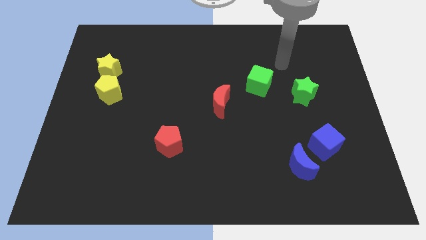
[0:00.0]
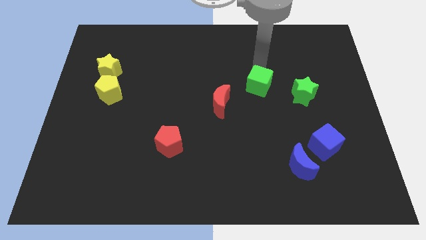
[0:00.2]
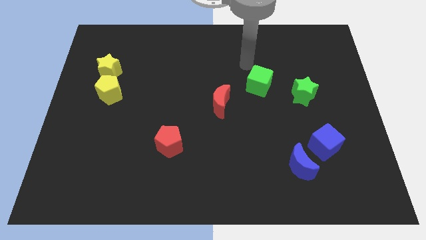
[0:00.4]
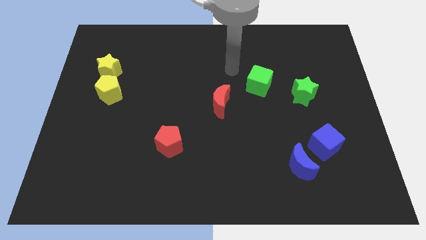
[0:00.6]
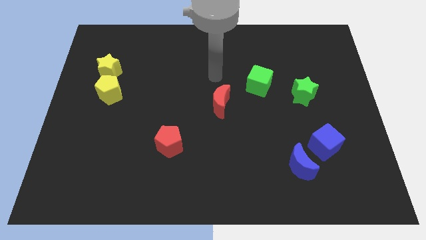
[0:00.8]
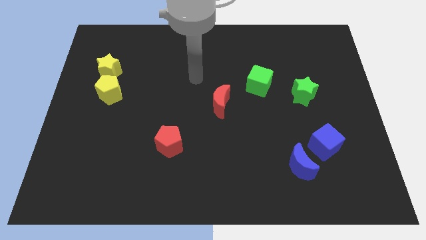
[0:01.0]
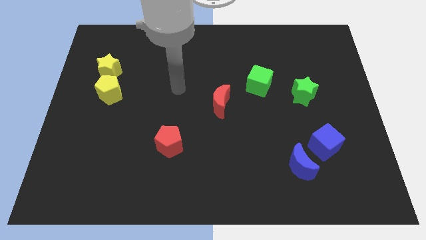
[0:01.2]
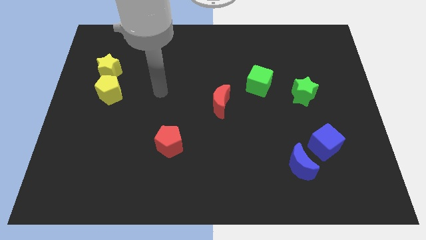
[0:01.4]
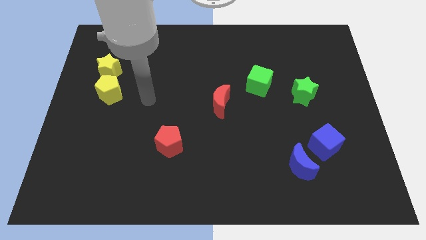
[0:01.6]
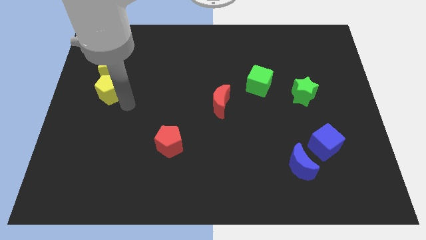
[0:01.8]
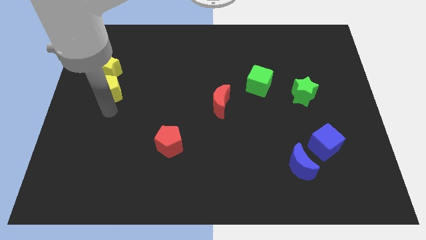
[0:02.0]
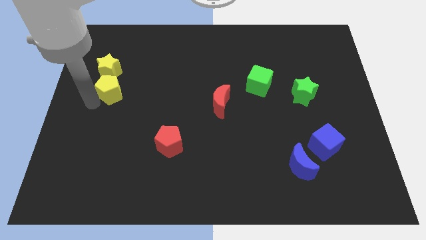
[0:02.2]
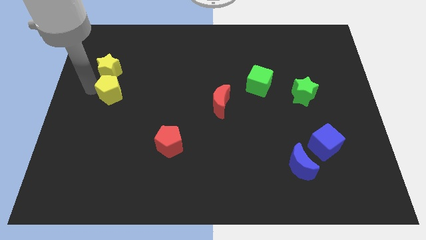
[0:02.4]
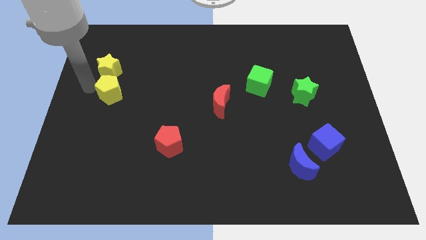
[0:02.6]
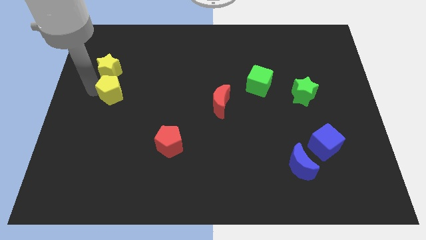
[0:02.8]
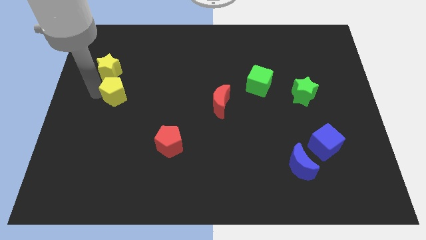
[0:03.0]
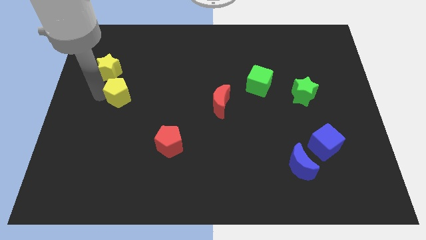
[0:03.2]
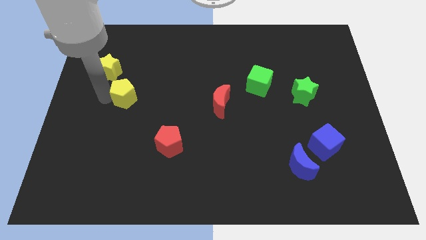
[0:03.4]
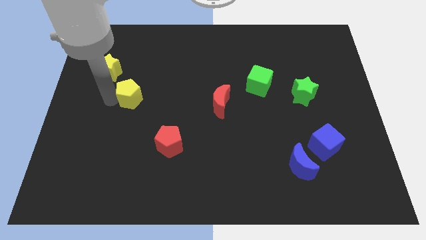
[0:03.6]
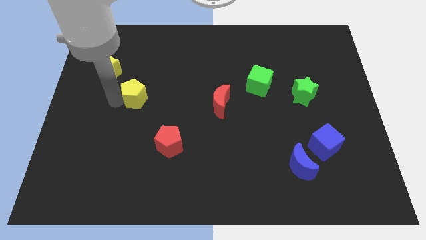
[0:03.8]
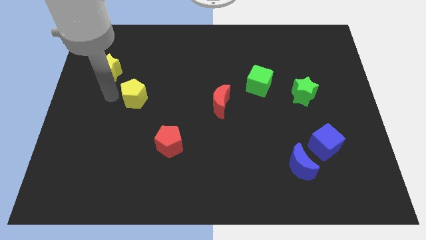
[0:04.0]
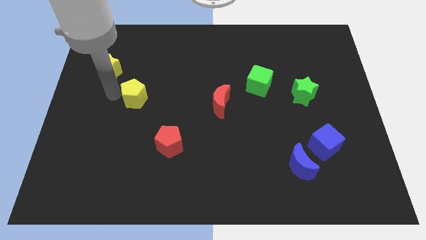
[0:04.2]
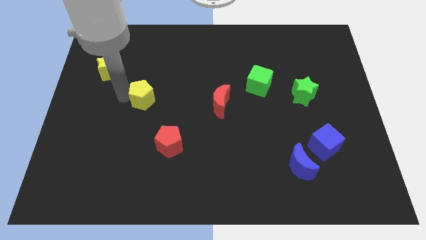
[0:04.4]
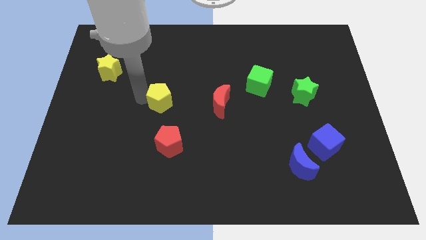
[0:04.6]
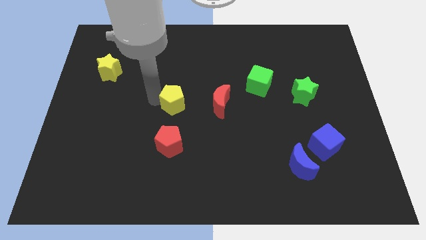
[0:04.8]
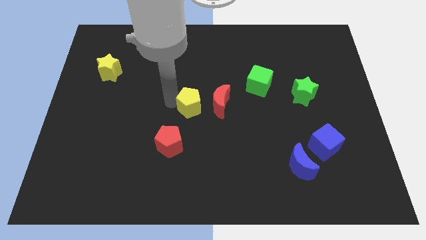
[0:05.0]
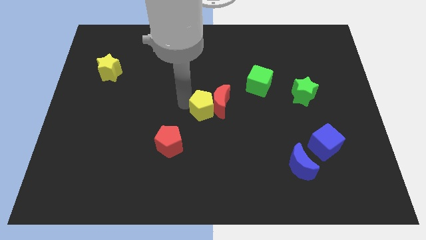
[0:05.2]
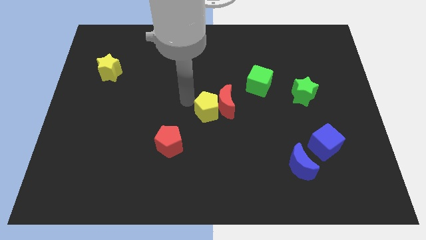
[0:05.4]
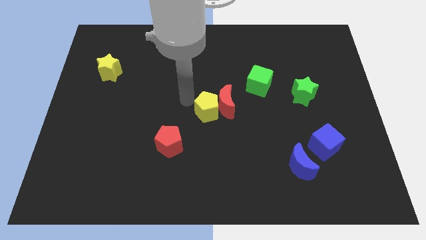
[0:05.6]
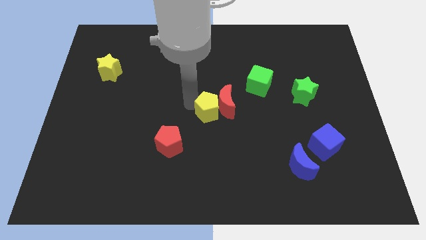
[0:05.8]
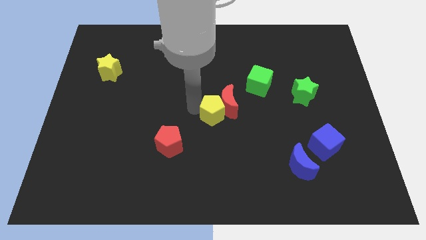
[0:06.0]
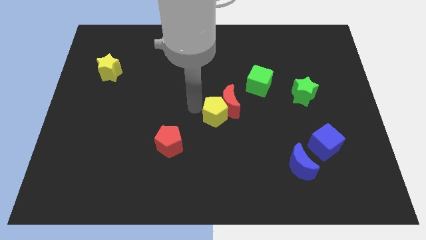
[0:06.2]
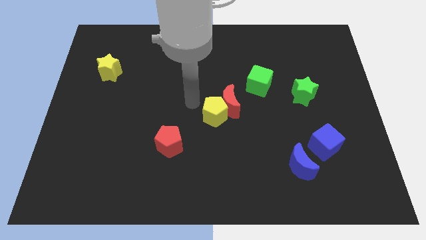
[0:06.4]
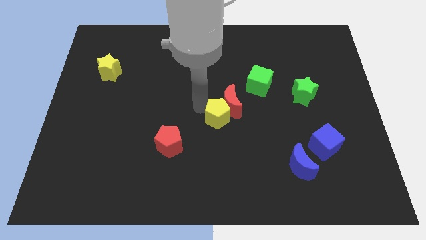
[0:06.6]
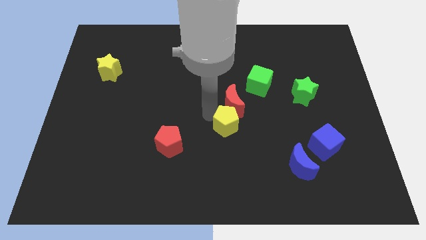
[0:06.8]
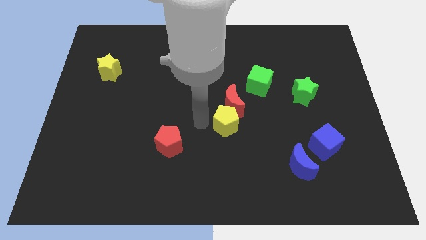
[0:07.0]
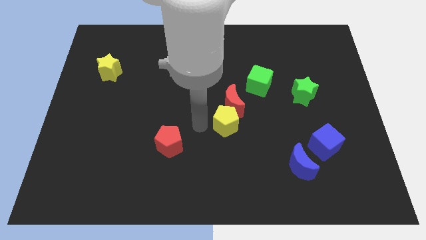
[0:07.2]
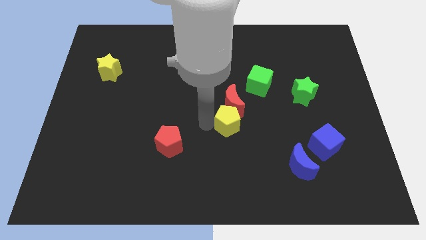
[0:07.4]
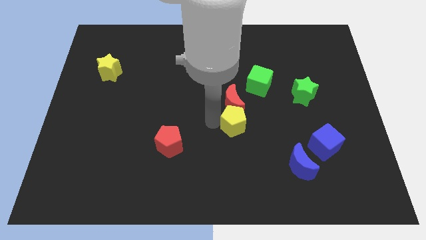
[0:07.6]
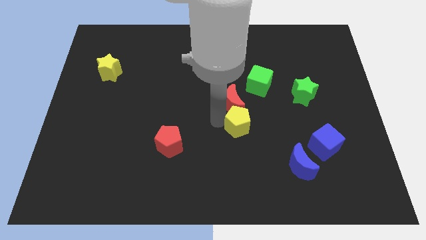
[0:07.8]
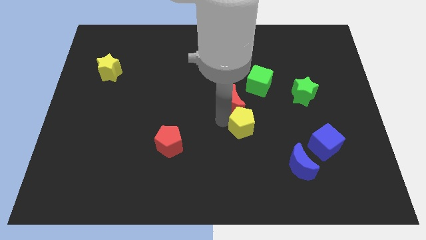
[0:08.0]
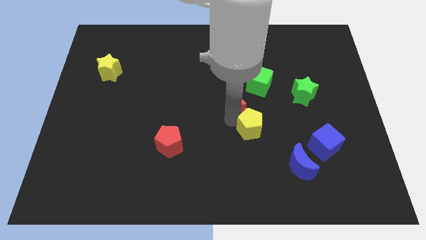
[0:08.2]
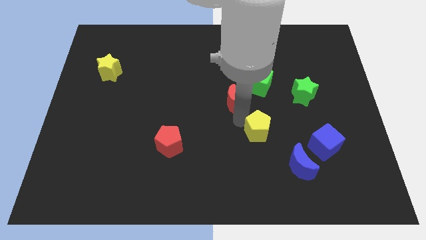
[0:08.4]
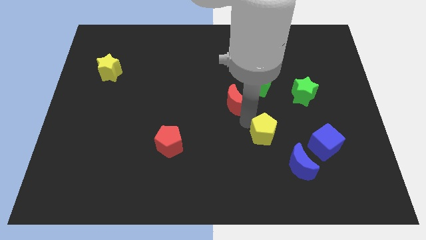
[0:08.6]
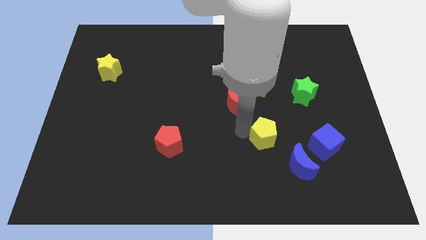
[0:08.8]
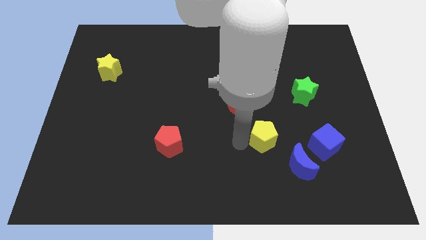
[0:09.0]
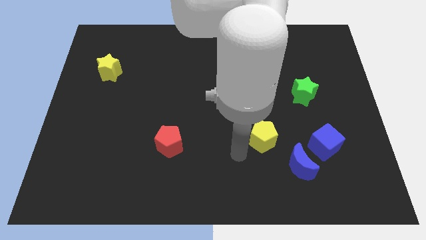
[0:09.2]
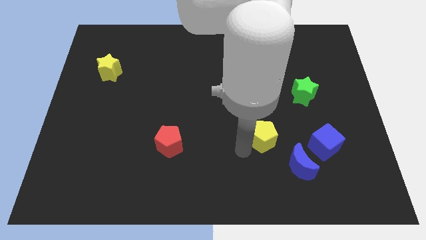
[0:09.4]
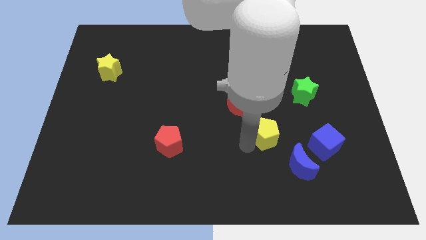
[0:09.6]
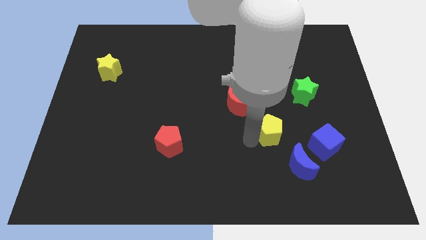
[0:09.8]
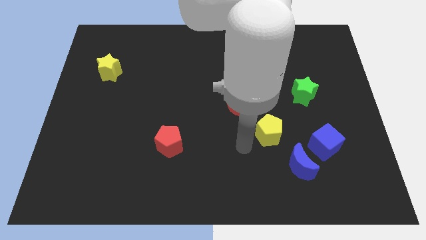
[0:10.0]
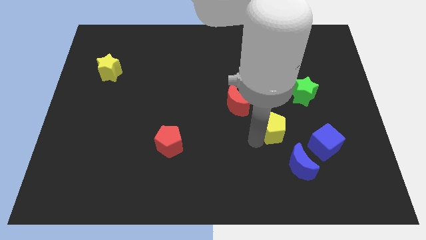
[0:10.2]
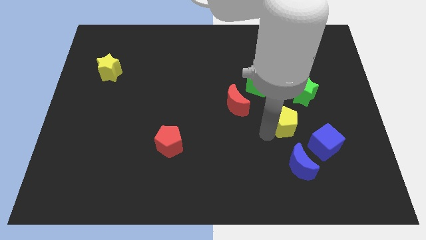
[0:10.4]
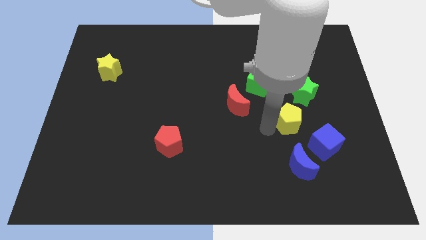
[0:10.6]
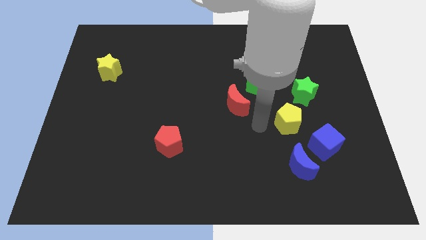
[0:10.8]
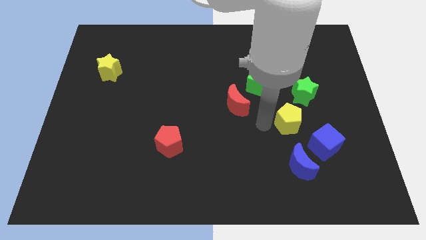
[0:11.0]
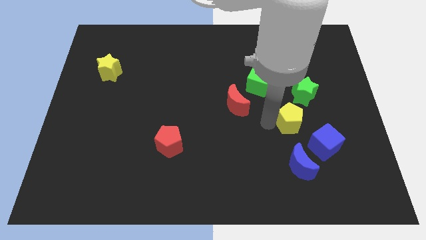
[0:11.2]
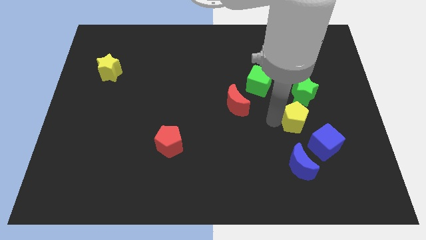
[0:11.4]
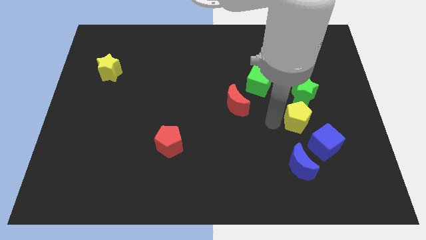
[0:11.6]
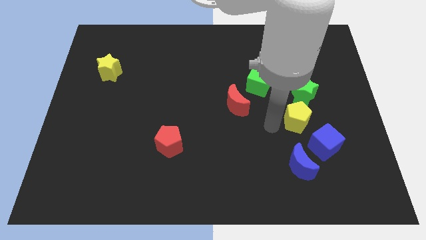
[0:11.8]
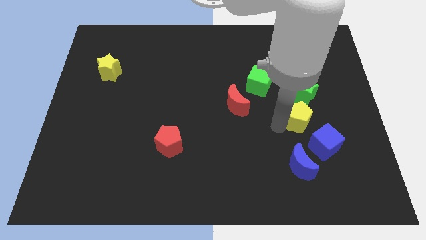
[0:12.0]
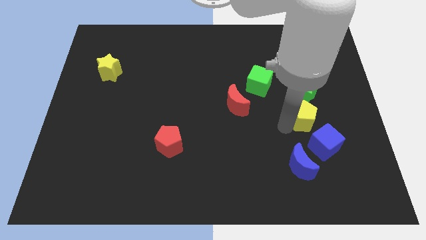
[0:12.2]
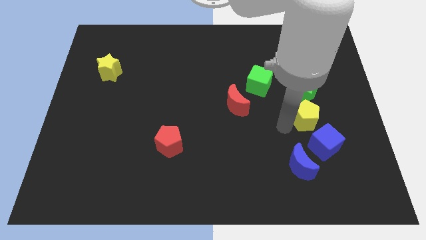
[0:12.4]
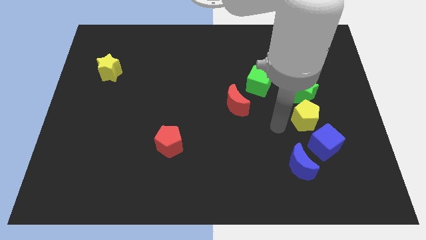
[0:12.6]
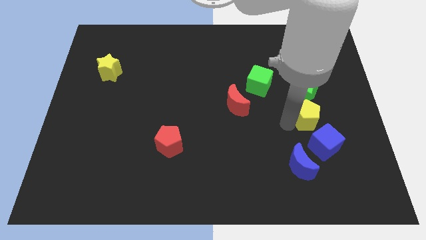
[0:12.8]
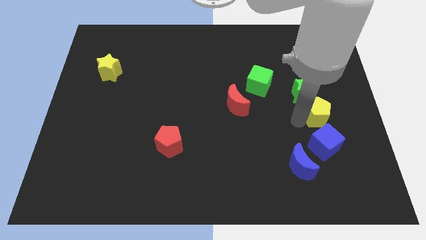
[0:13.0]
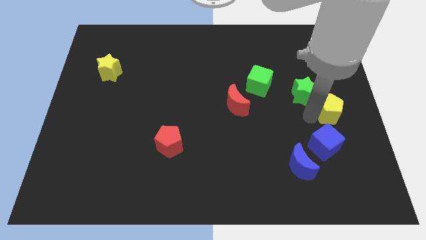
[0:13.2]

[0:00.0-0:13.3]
move the yellow pentagon to the right side

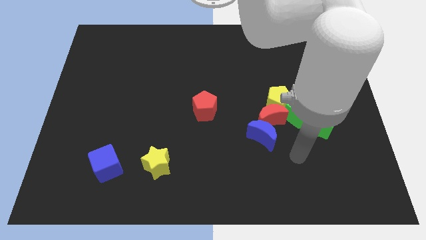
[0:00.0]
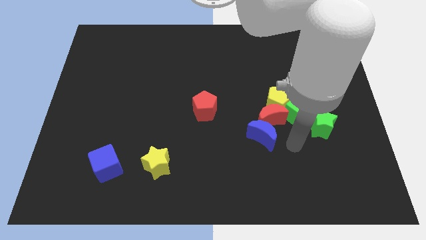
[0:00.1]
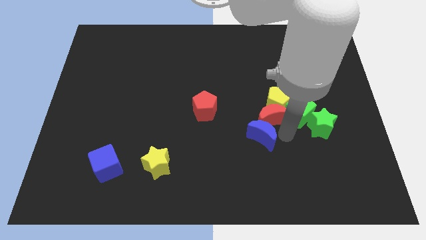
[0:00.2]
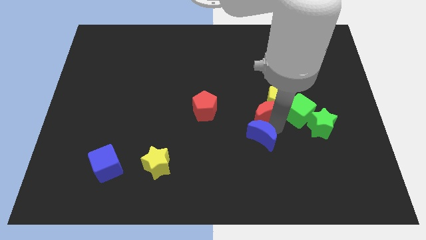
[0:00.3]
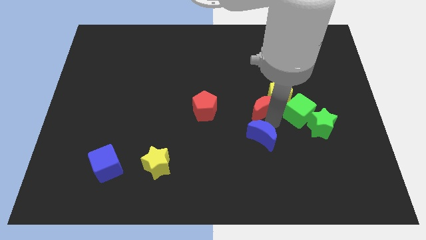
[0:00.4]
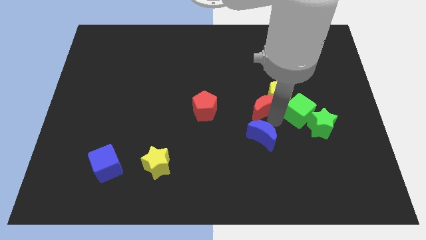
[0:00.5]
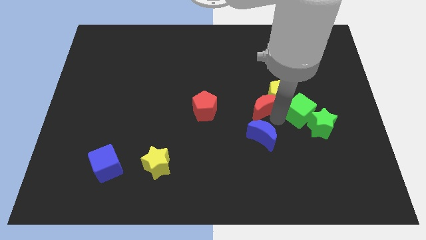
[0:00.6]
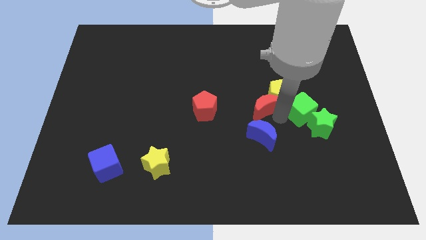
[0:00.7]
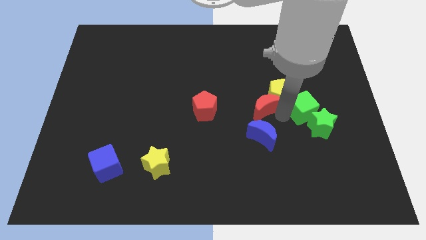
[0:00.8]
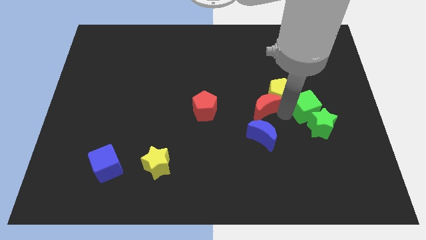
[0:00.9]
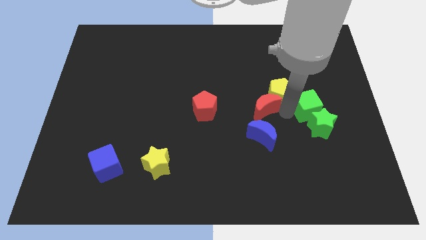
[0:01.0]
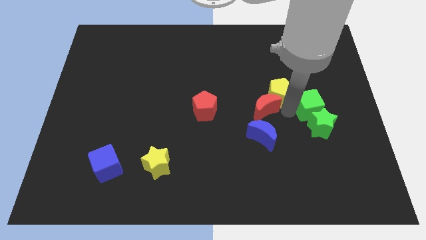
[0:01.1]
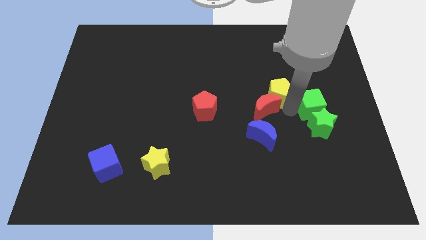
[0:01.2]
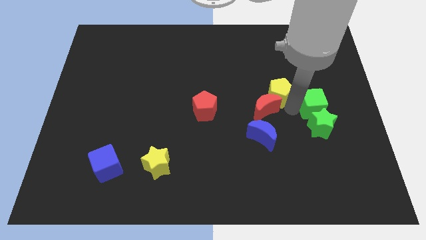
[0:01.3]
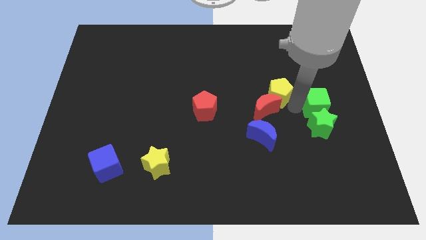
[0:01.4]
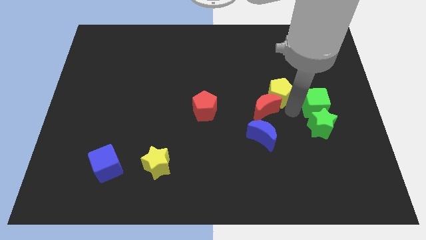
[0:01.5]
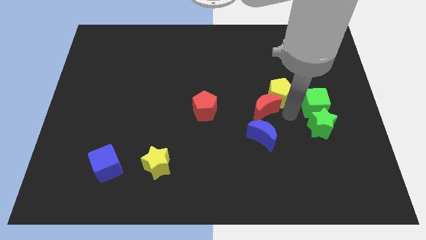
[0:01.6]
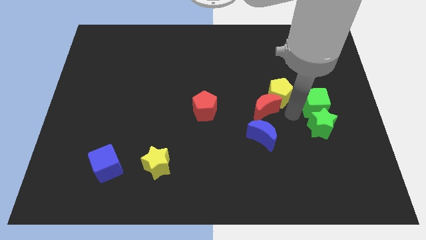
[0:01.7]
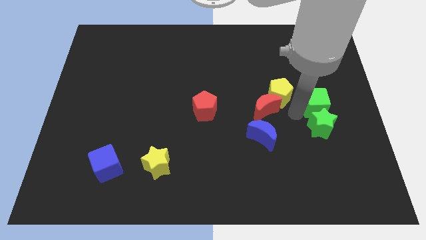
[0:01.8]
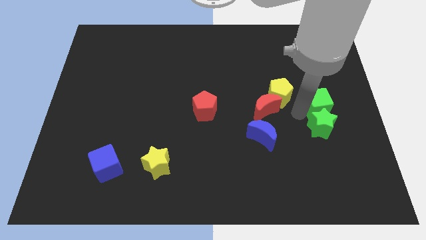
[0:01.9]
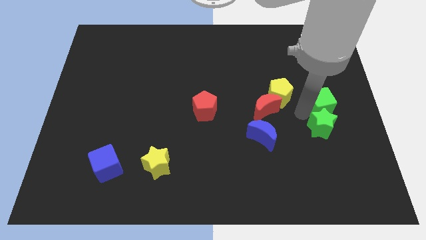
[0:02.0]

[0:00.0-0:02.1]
slide the green cube to the center right
